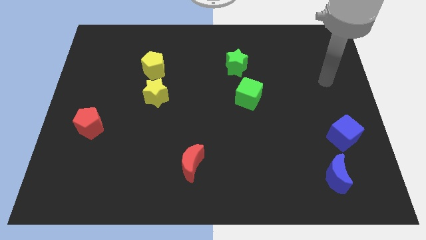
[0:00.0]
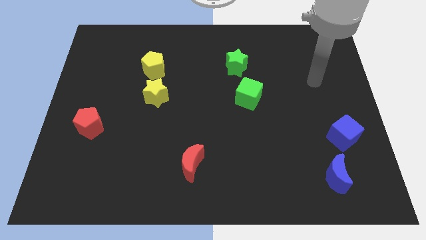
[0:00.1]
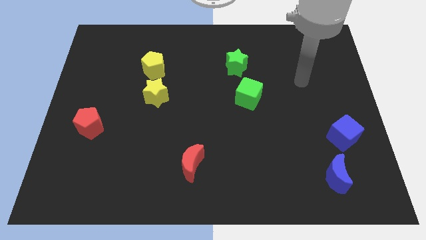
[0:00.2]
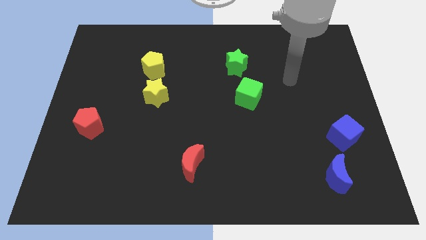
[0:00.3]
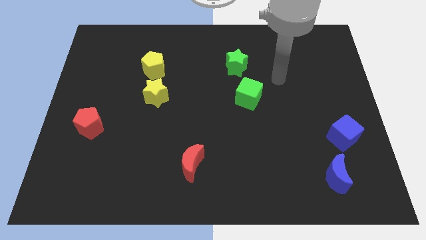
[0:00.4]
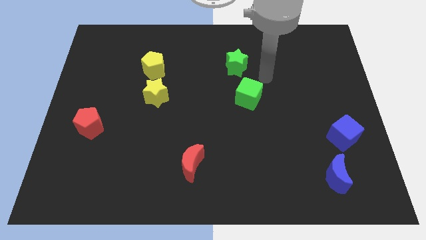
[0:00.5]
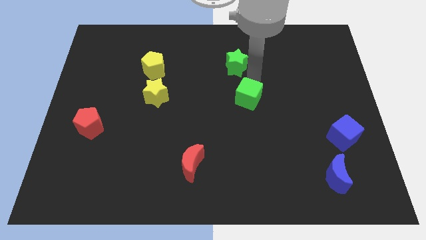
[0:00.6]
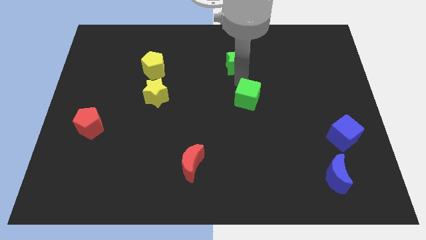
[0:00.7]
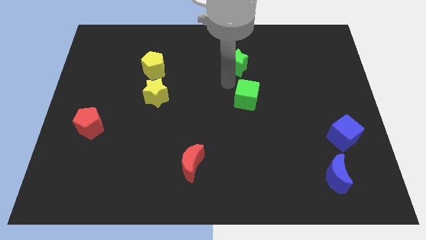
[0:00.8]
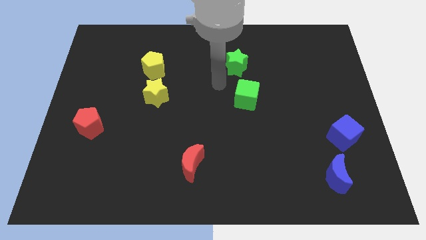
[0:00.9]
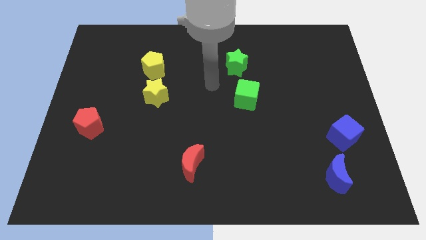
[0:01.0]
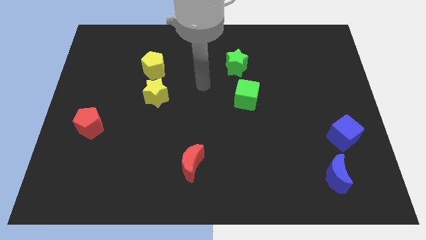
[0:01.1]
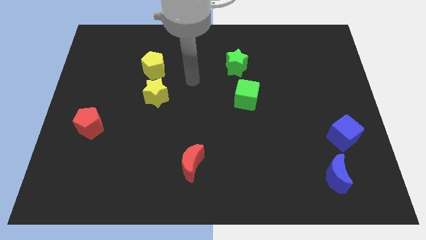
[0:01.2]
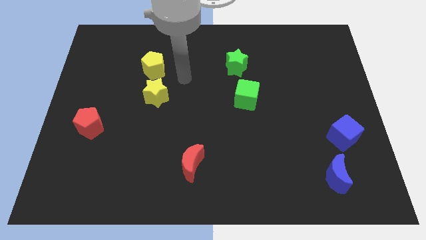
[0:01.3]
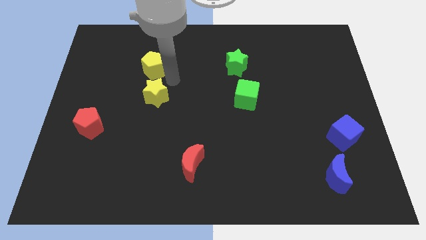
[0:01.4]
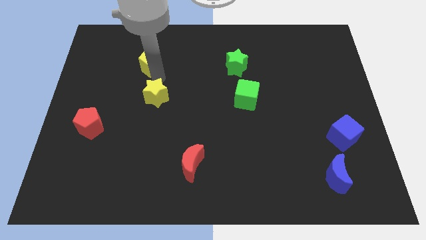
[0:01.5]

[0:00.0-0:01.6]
move the yellow star away from the yellow pentagon

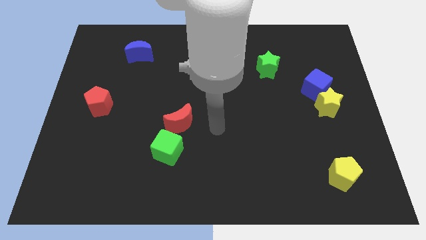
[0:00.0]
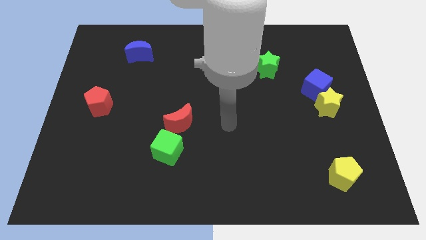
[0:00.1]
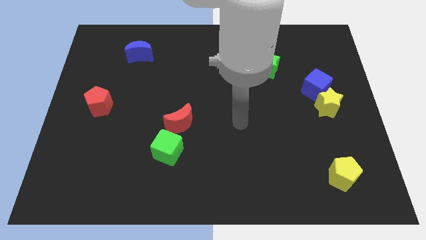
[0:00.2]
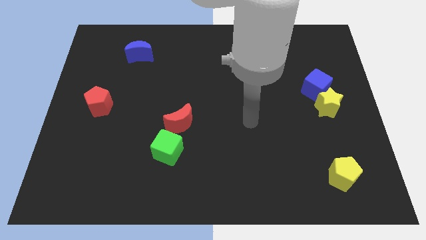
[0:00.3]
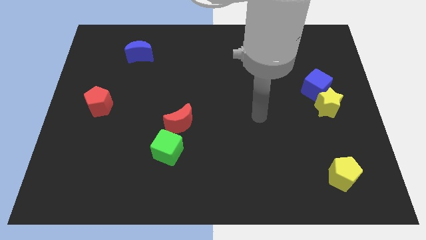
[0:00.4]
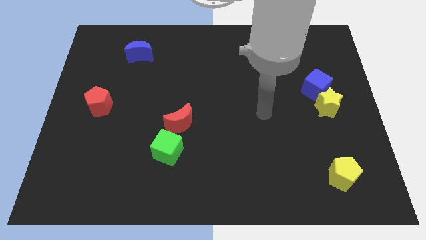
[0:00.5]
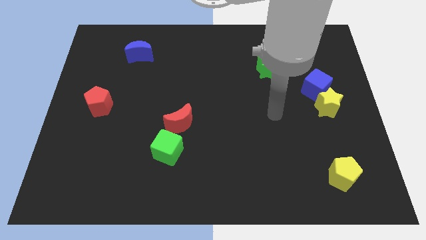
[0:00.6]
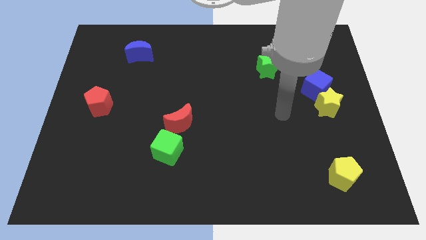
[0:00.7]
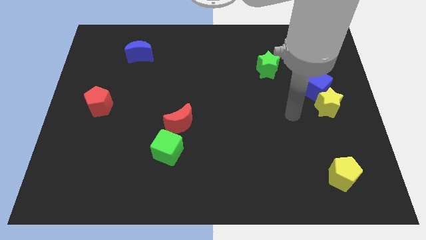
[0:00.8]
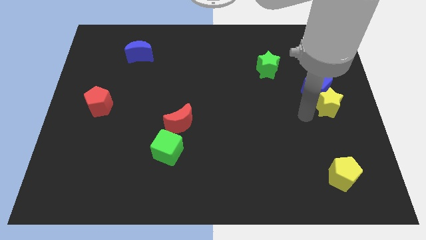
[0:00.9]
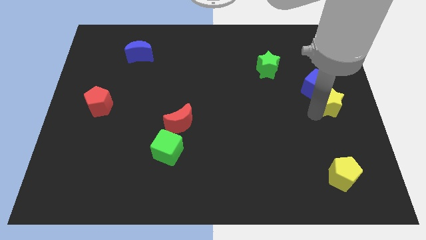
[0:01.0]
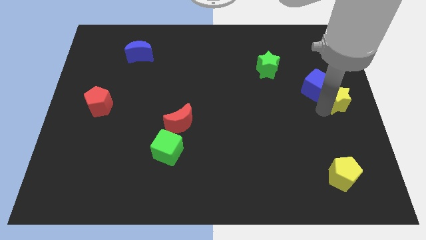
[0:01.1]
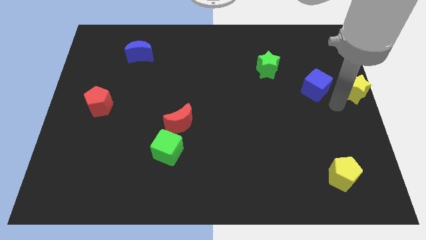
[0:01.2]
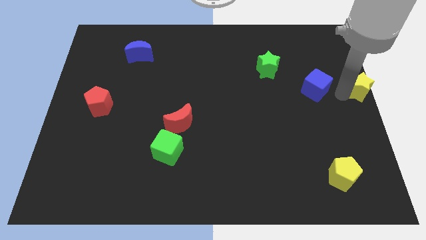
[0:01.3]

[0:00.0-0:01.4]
move the blue cube away from the yellow star

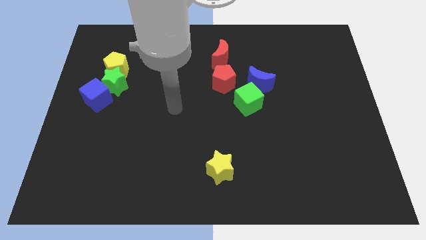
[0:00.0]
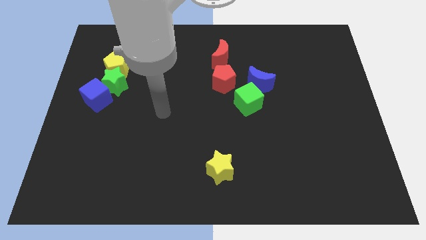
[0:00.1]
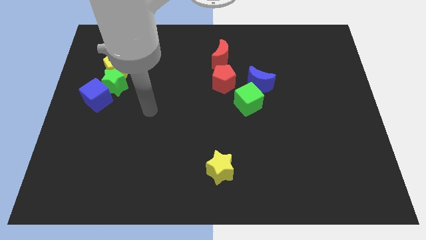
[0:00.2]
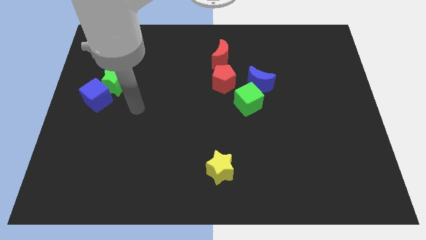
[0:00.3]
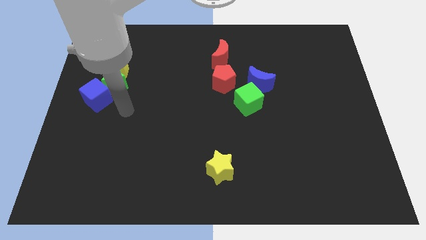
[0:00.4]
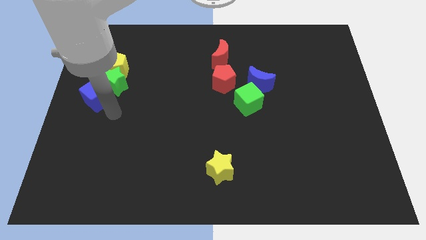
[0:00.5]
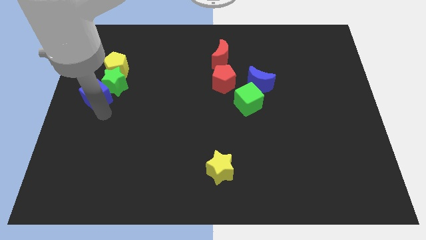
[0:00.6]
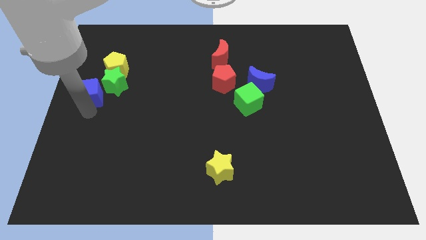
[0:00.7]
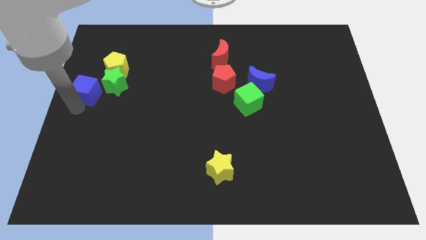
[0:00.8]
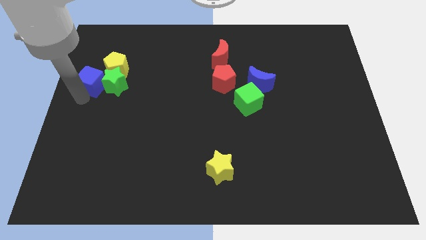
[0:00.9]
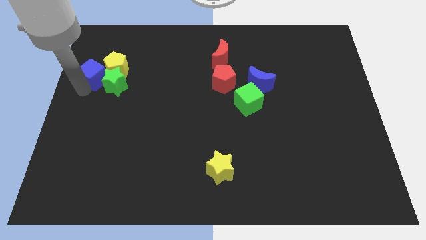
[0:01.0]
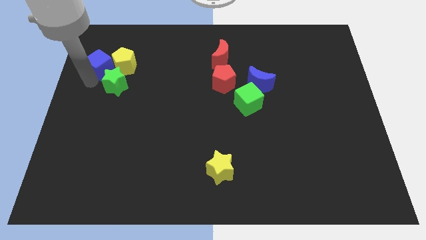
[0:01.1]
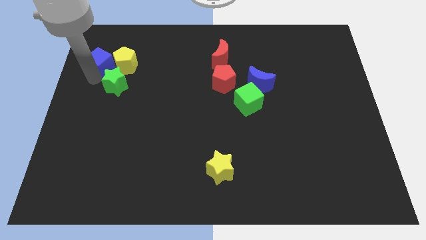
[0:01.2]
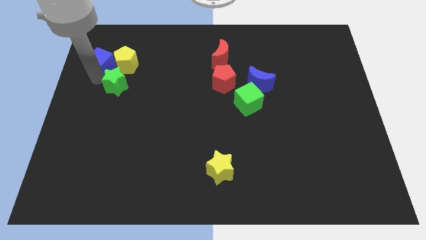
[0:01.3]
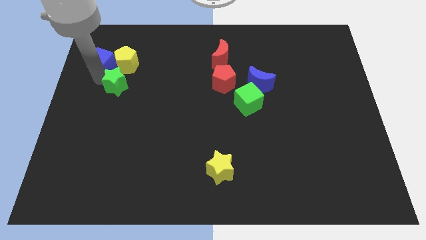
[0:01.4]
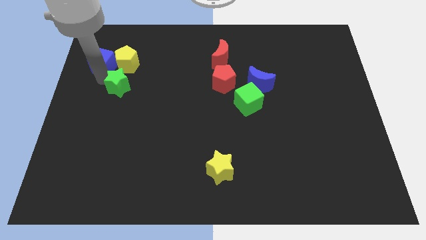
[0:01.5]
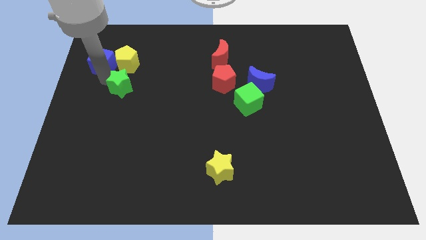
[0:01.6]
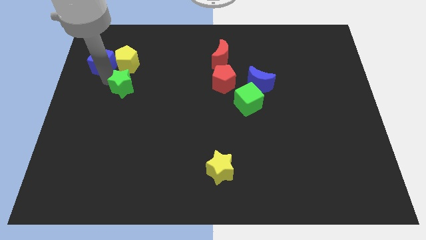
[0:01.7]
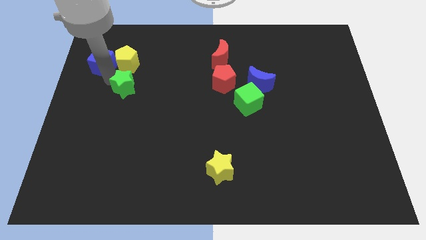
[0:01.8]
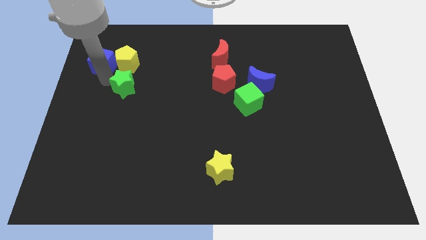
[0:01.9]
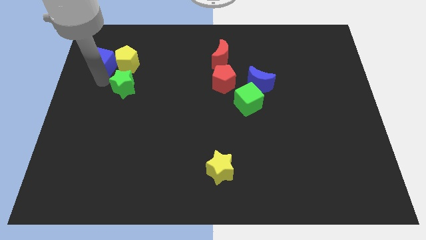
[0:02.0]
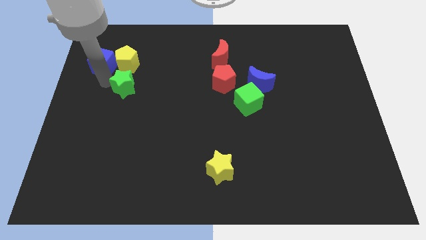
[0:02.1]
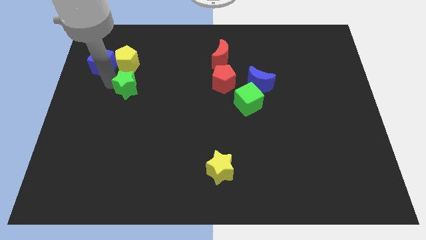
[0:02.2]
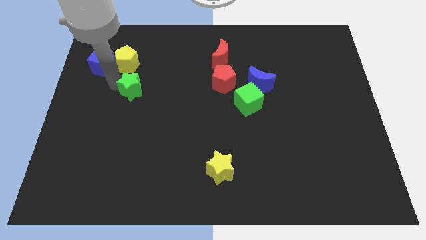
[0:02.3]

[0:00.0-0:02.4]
move the green star away from the yellow pentagon and blue cube

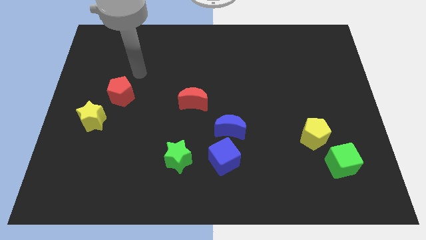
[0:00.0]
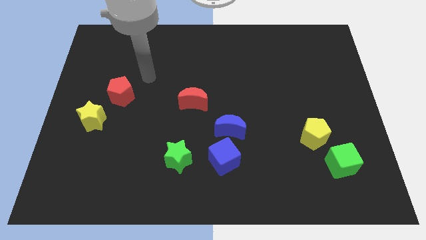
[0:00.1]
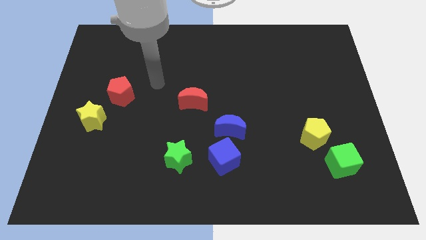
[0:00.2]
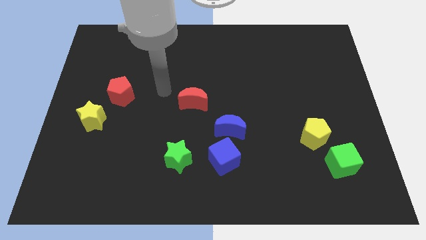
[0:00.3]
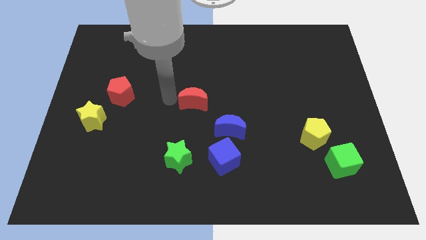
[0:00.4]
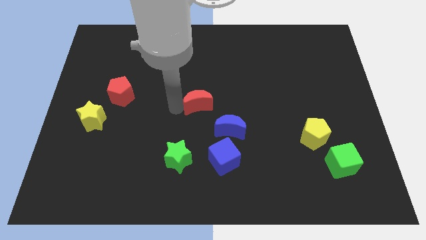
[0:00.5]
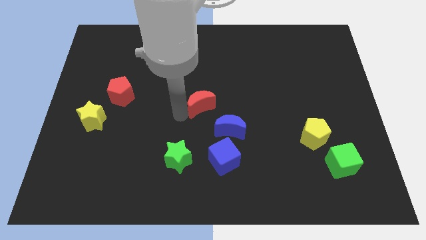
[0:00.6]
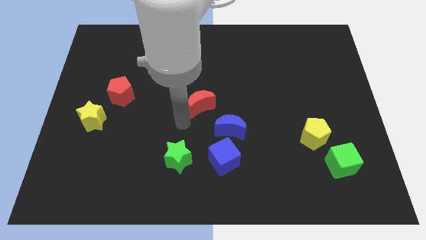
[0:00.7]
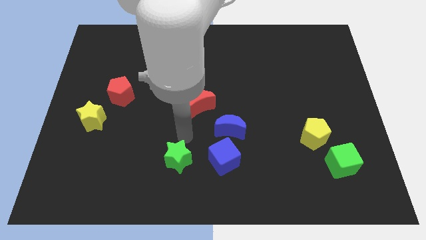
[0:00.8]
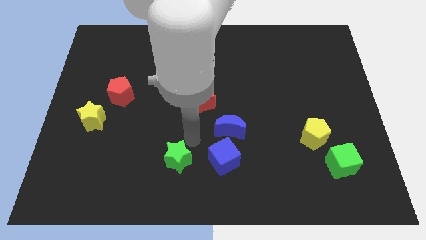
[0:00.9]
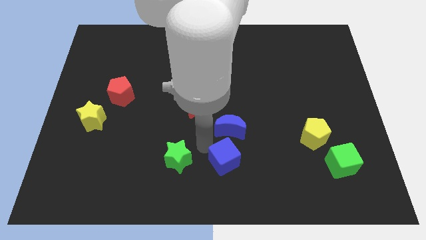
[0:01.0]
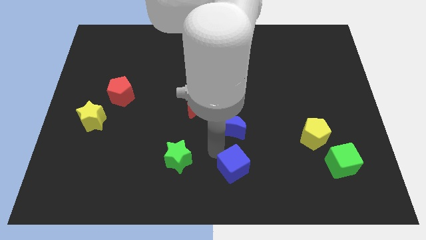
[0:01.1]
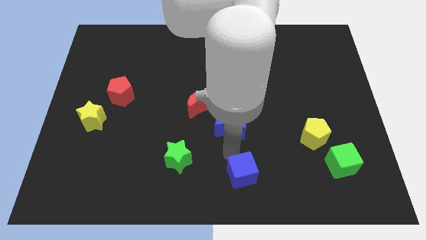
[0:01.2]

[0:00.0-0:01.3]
move the blue moon away from the blue cube

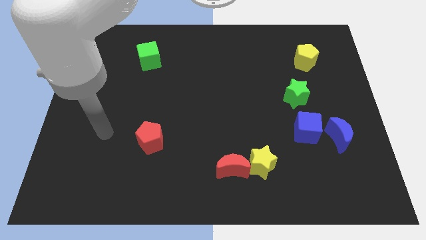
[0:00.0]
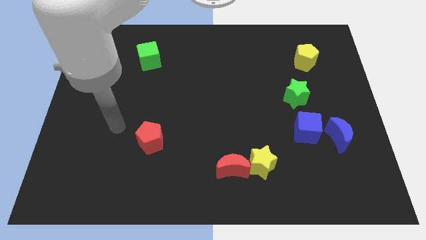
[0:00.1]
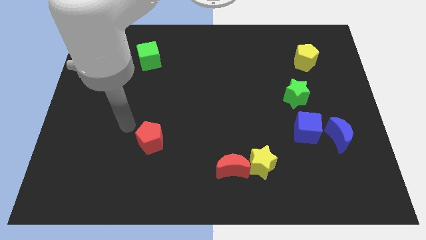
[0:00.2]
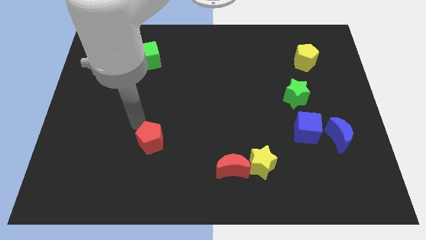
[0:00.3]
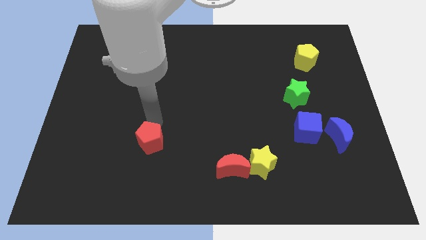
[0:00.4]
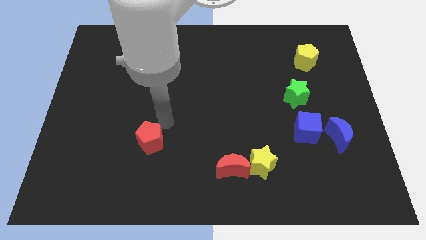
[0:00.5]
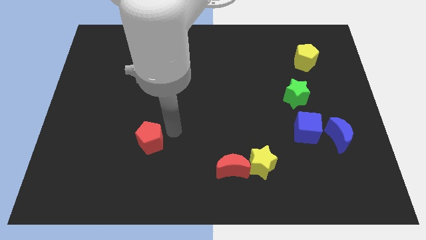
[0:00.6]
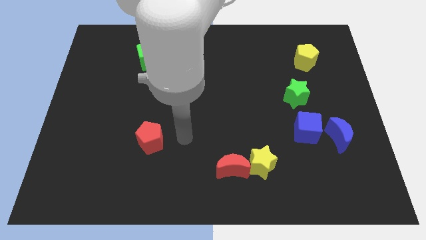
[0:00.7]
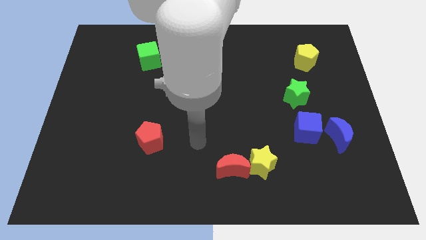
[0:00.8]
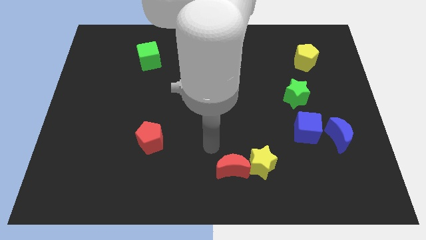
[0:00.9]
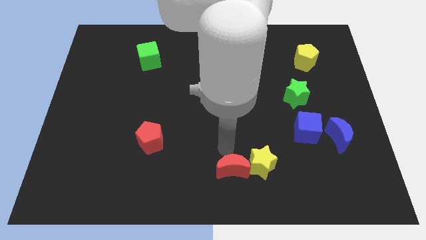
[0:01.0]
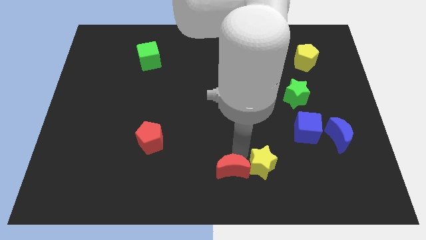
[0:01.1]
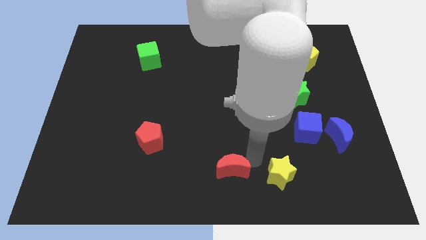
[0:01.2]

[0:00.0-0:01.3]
move the red moon away from the yellow star

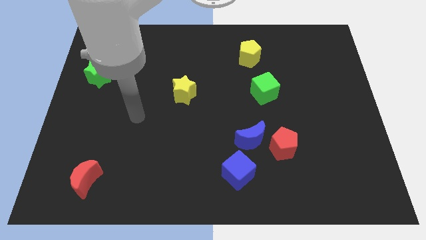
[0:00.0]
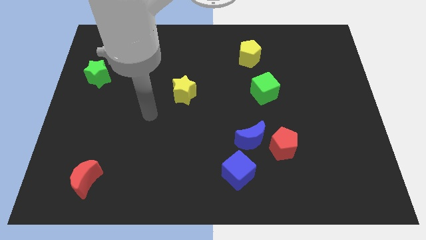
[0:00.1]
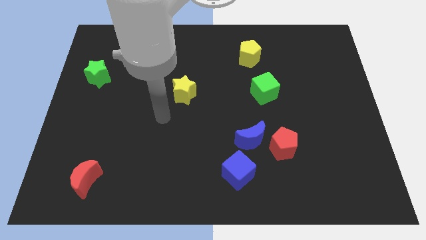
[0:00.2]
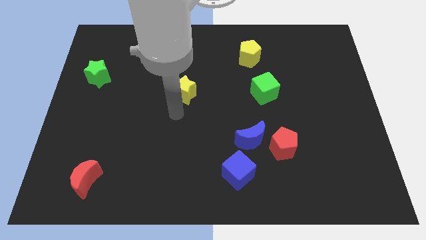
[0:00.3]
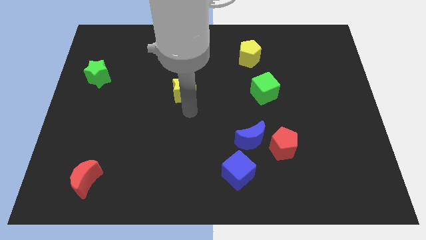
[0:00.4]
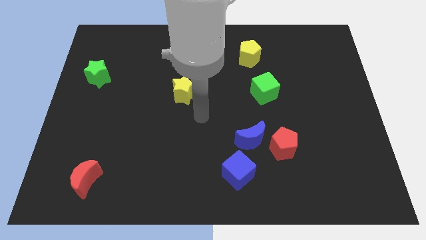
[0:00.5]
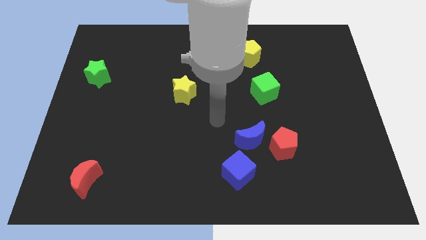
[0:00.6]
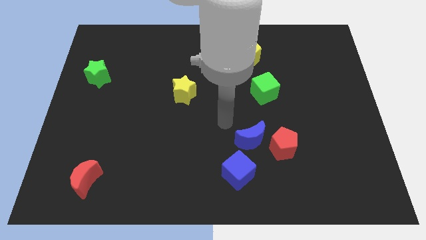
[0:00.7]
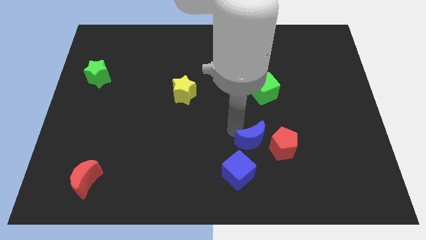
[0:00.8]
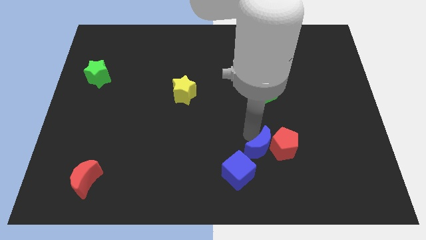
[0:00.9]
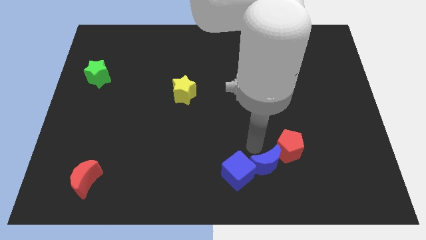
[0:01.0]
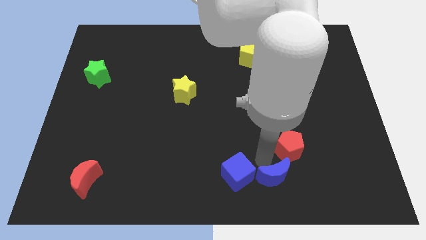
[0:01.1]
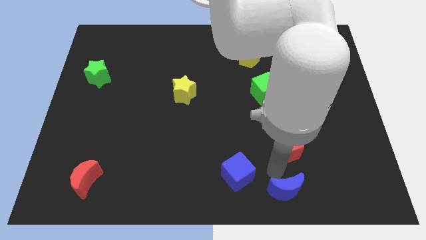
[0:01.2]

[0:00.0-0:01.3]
separate the red pentagon from the blue moon

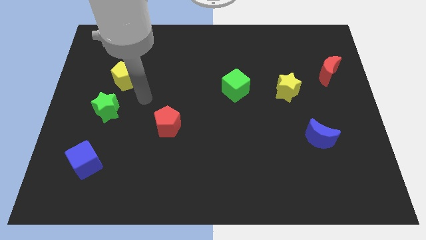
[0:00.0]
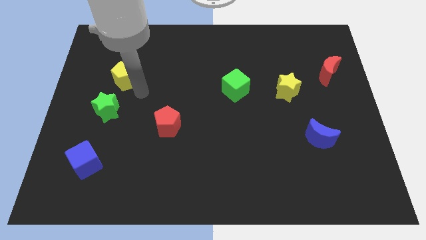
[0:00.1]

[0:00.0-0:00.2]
pull the green star apart from the yellow pentagon
